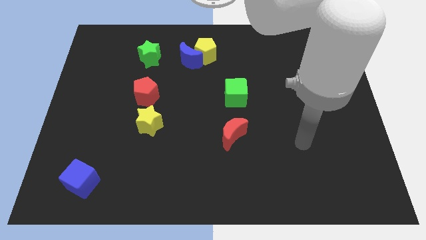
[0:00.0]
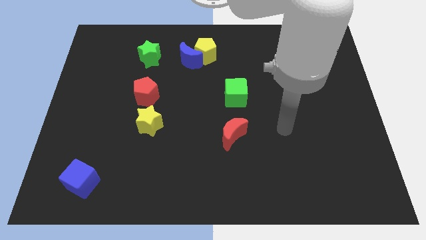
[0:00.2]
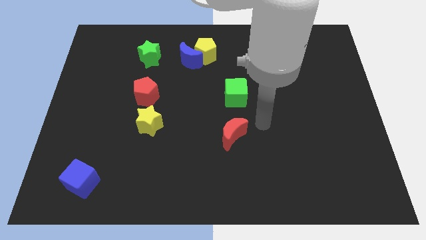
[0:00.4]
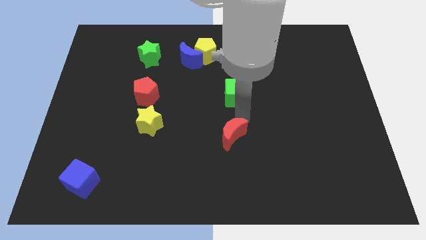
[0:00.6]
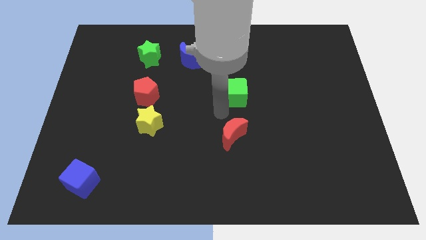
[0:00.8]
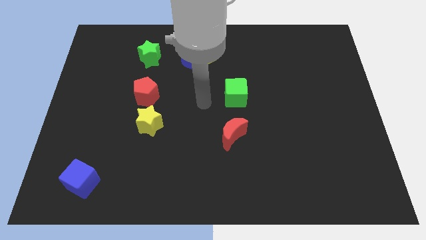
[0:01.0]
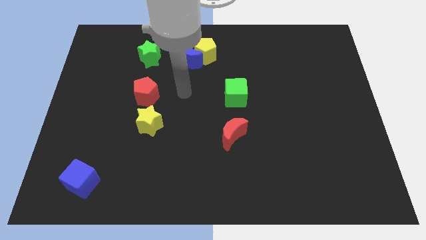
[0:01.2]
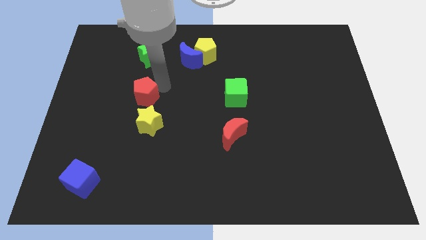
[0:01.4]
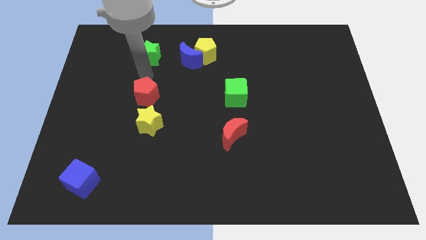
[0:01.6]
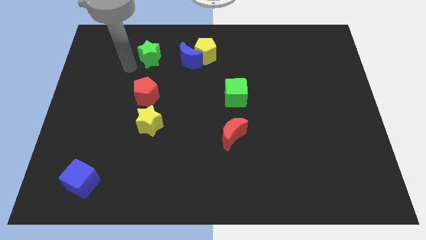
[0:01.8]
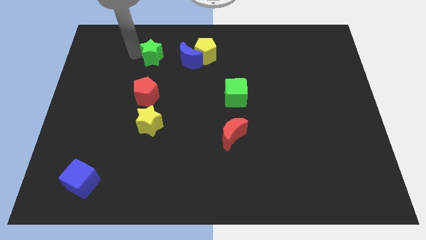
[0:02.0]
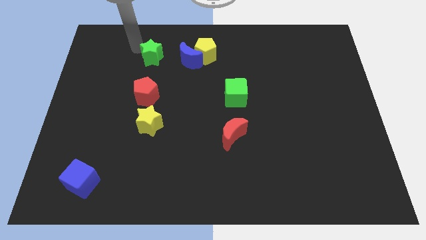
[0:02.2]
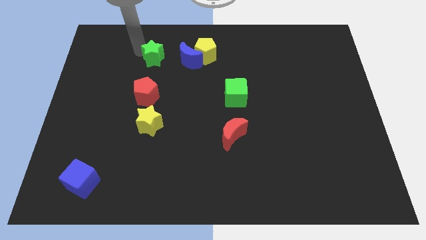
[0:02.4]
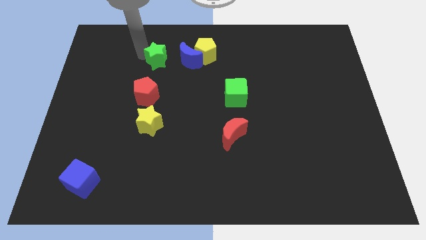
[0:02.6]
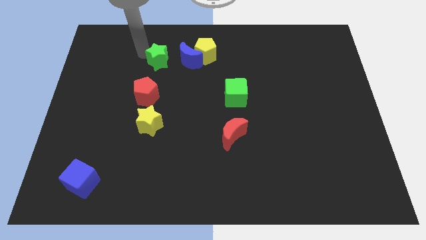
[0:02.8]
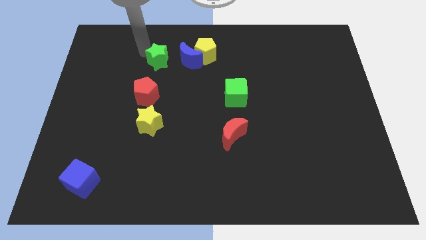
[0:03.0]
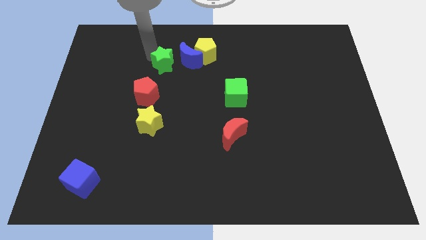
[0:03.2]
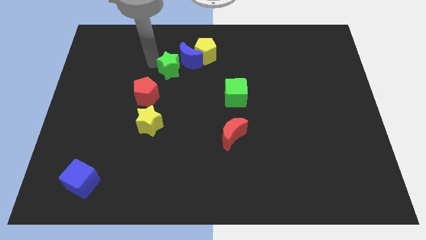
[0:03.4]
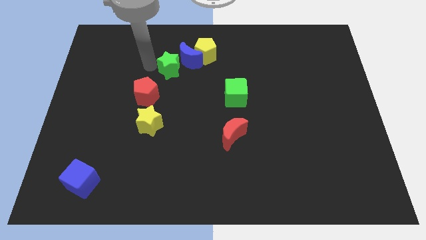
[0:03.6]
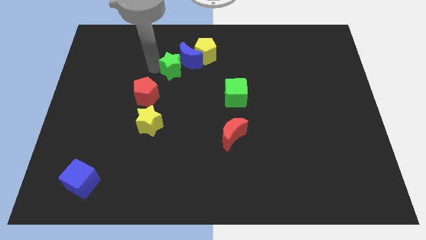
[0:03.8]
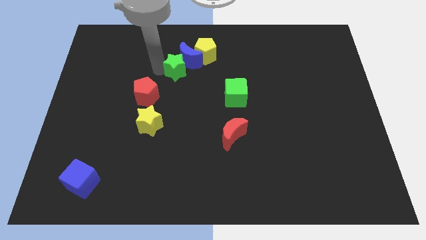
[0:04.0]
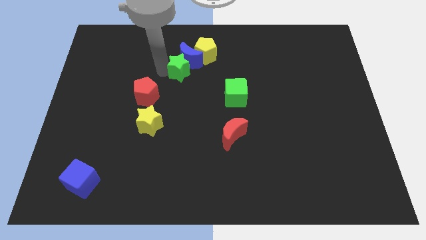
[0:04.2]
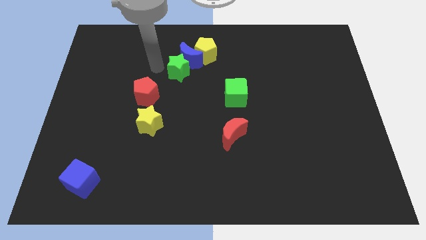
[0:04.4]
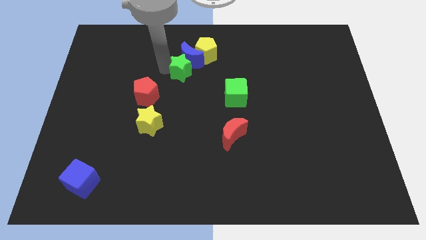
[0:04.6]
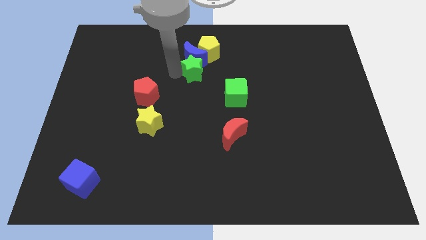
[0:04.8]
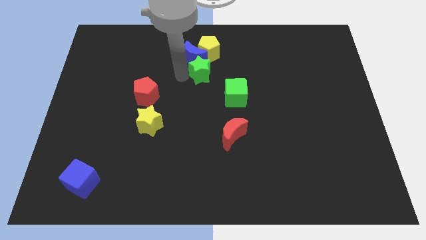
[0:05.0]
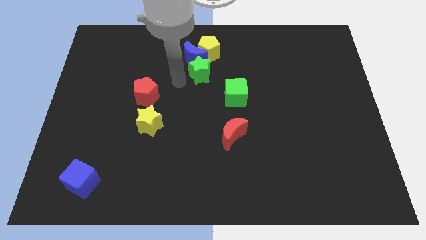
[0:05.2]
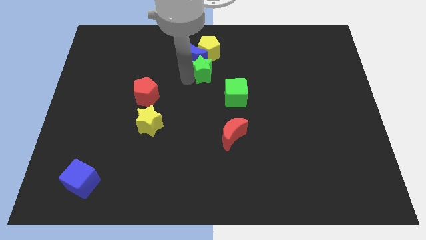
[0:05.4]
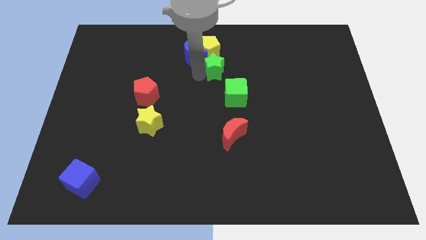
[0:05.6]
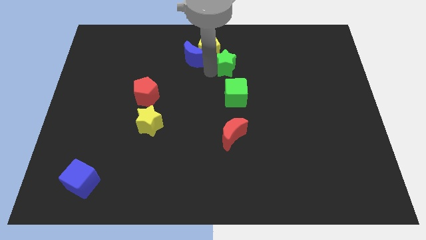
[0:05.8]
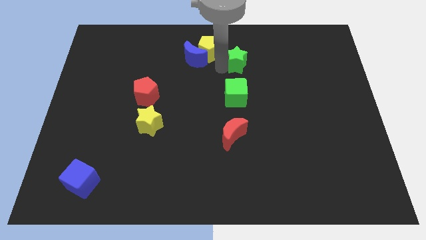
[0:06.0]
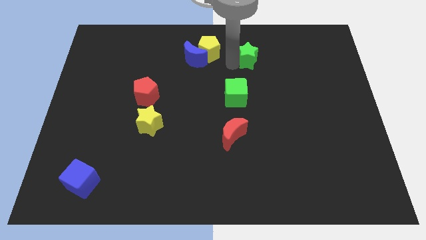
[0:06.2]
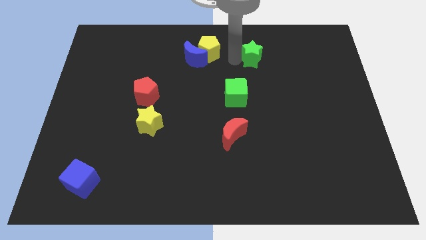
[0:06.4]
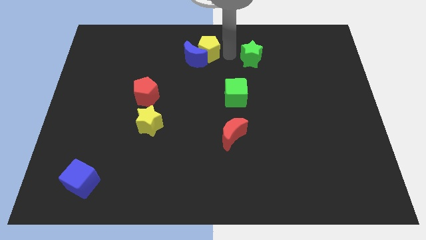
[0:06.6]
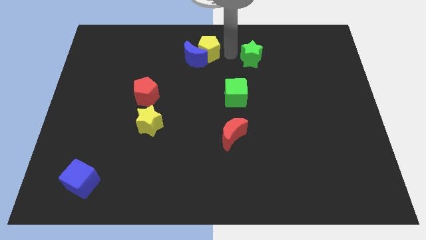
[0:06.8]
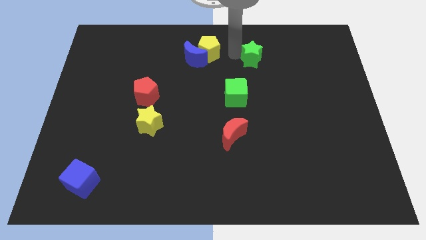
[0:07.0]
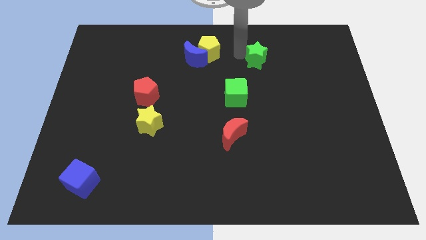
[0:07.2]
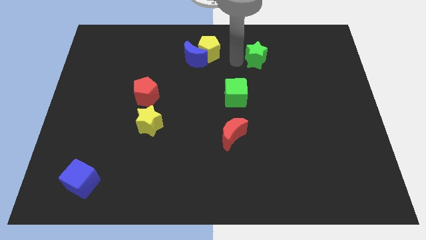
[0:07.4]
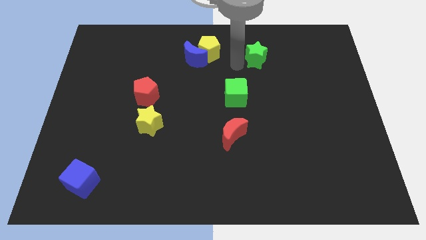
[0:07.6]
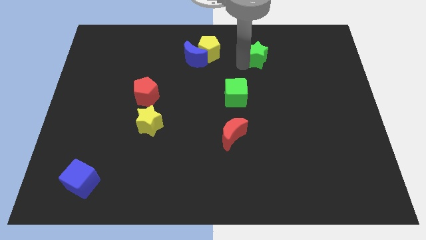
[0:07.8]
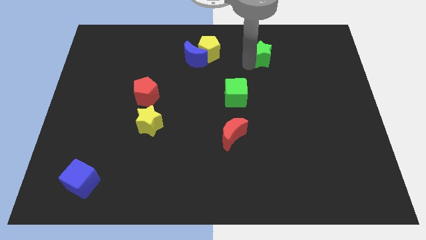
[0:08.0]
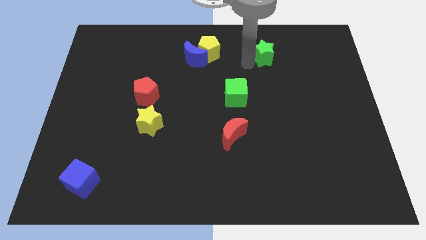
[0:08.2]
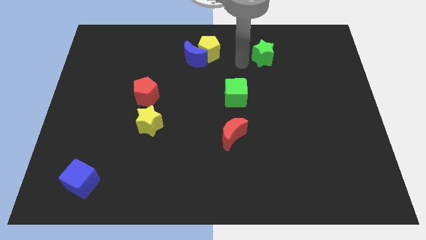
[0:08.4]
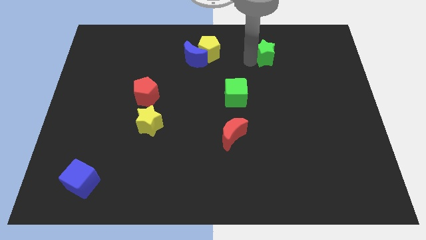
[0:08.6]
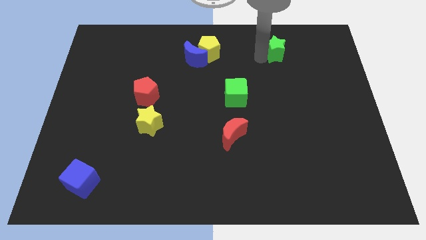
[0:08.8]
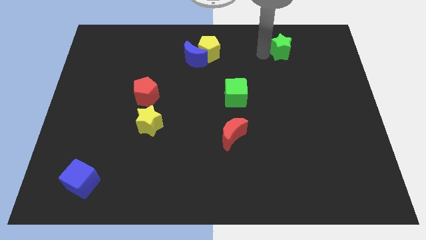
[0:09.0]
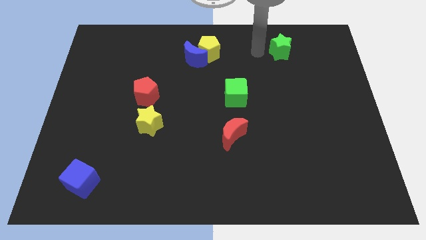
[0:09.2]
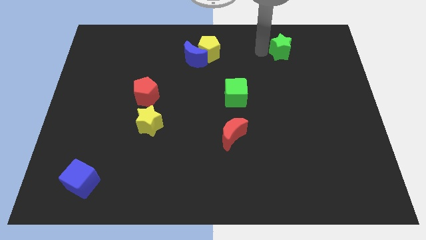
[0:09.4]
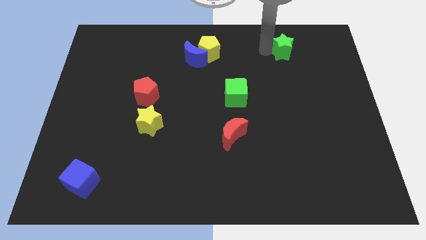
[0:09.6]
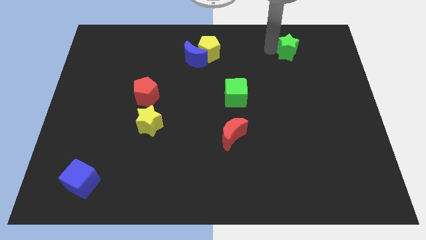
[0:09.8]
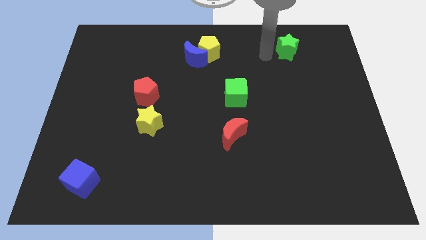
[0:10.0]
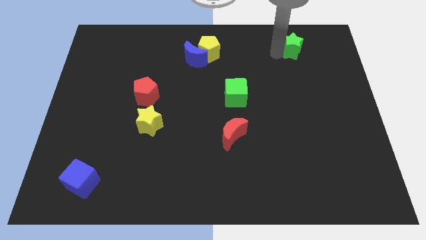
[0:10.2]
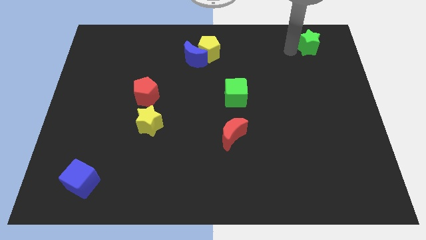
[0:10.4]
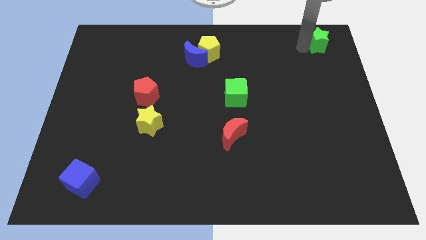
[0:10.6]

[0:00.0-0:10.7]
put the green star to the top right of the board
